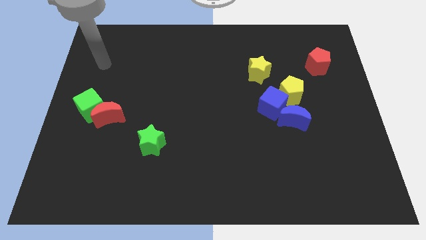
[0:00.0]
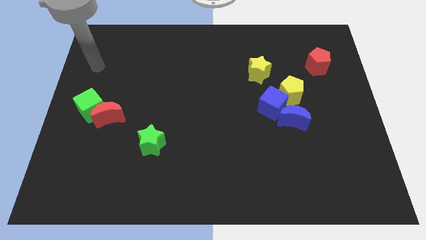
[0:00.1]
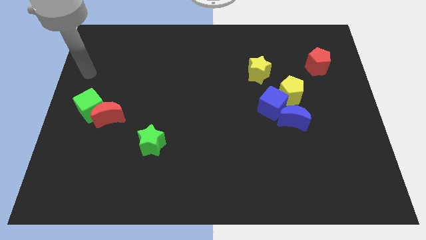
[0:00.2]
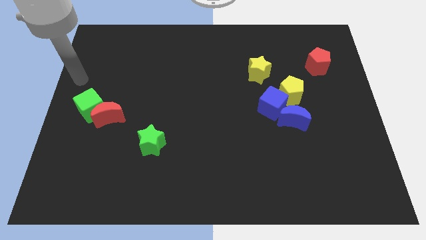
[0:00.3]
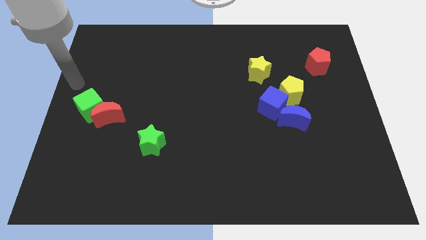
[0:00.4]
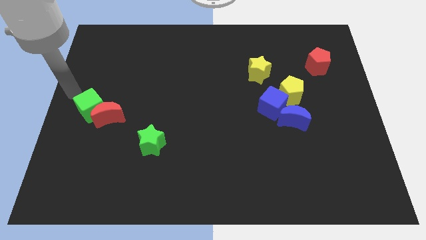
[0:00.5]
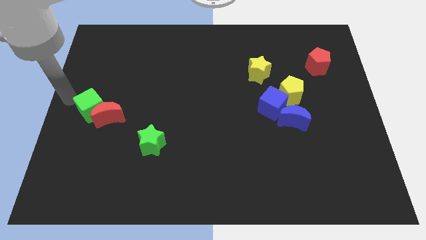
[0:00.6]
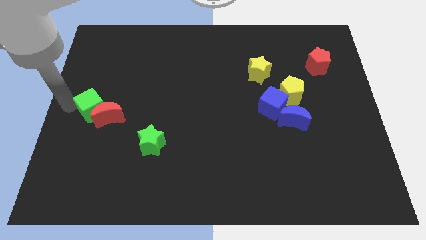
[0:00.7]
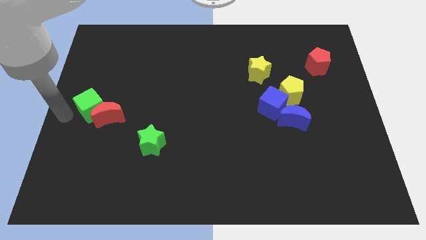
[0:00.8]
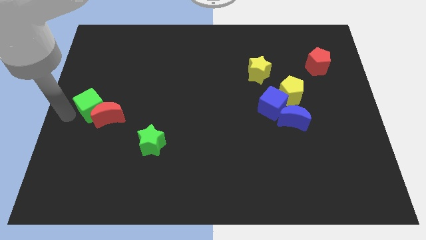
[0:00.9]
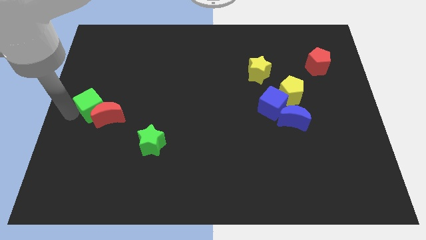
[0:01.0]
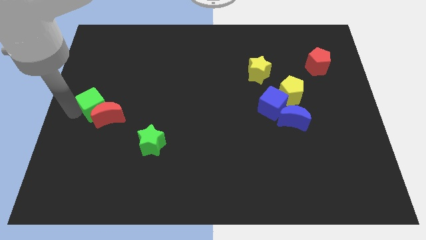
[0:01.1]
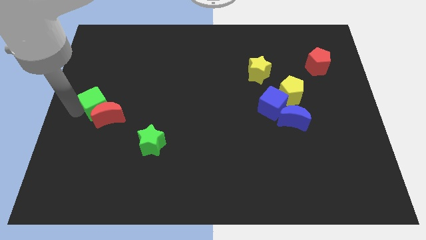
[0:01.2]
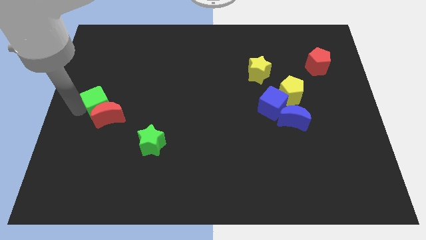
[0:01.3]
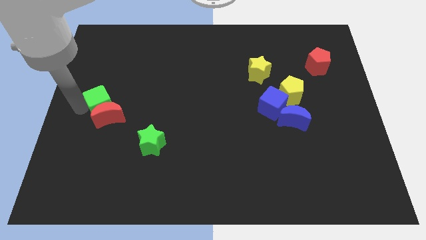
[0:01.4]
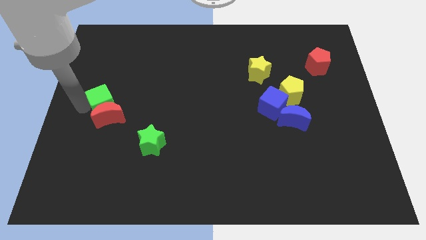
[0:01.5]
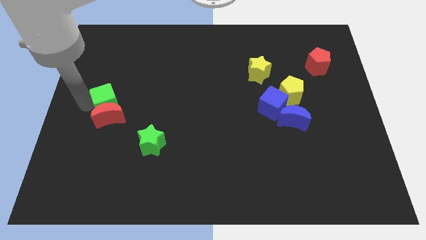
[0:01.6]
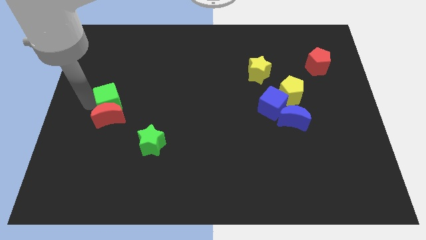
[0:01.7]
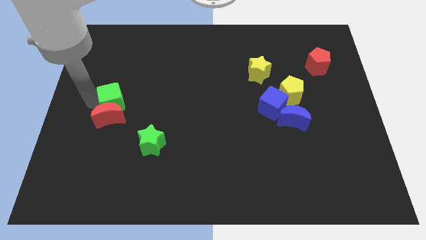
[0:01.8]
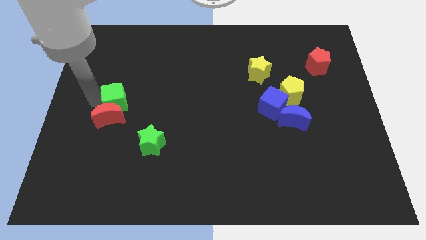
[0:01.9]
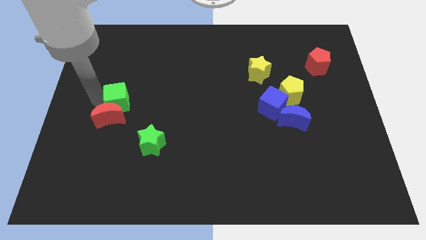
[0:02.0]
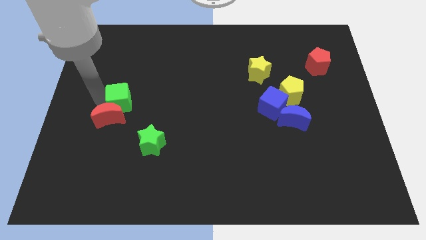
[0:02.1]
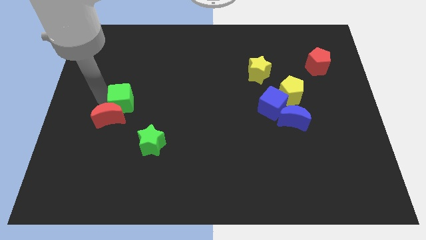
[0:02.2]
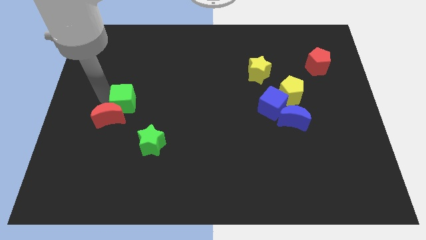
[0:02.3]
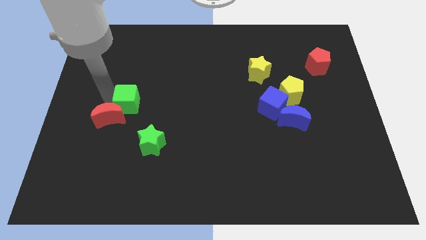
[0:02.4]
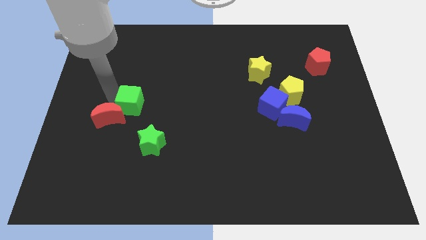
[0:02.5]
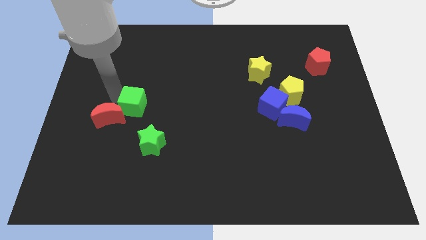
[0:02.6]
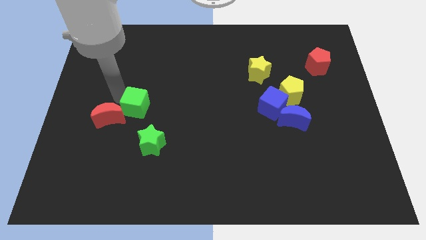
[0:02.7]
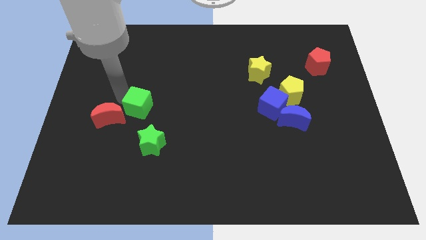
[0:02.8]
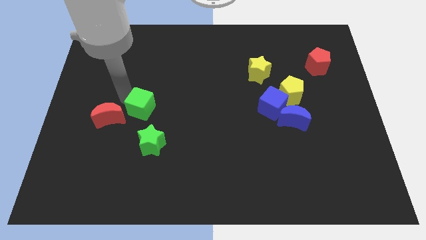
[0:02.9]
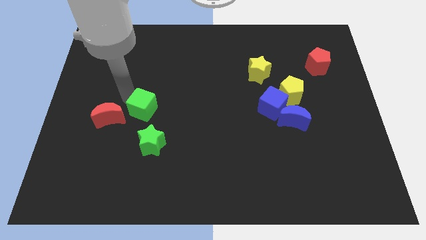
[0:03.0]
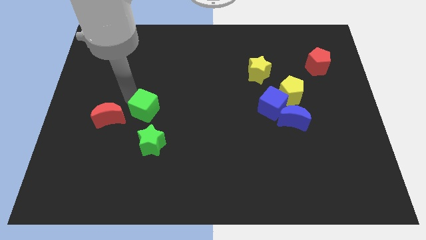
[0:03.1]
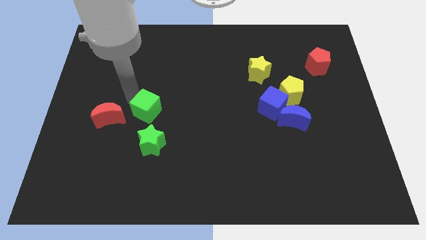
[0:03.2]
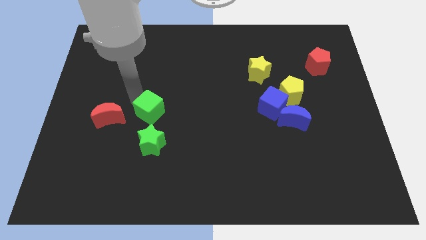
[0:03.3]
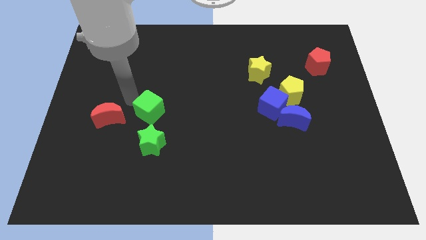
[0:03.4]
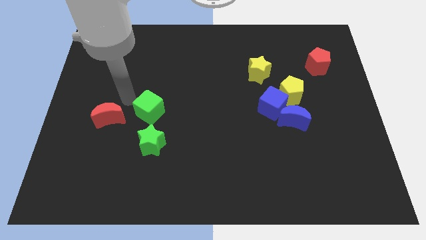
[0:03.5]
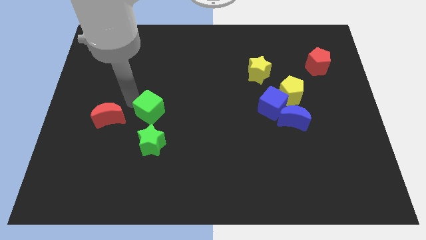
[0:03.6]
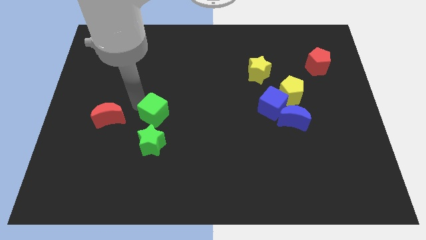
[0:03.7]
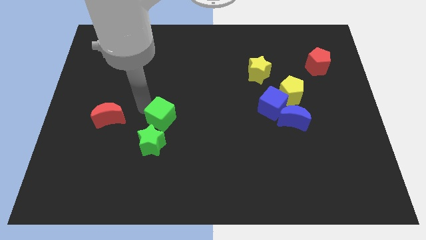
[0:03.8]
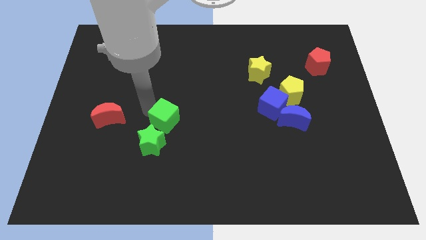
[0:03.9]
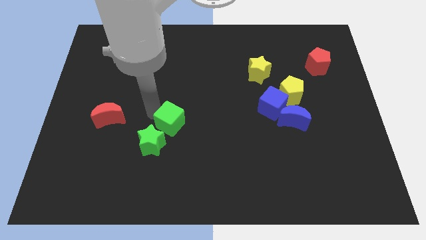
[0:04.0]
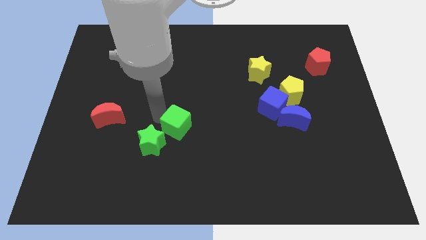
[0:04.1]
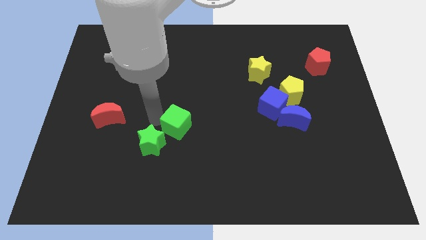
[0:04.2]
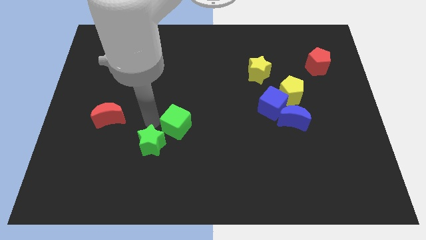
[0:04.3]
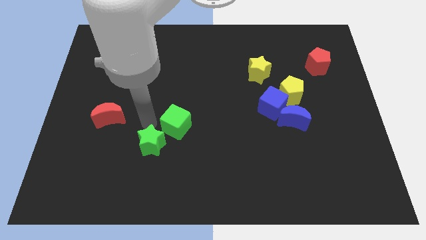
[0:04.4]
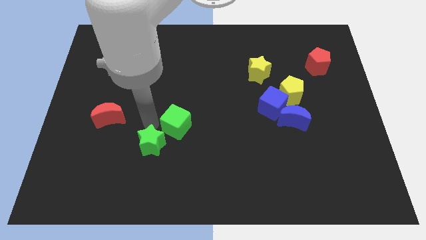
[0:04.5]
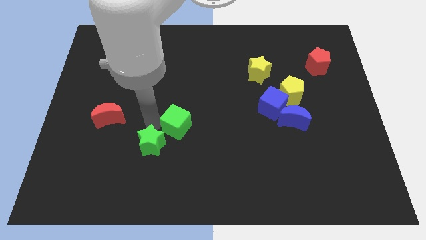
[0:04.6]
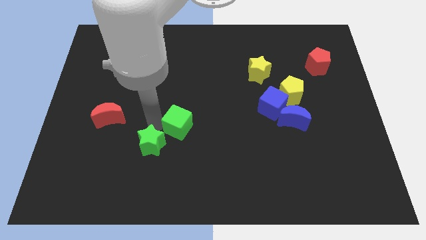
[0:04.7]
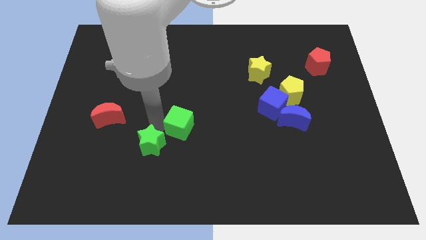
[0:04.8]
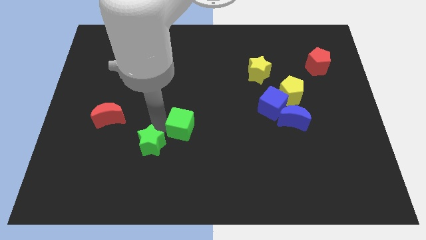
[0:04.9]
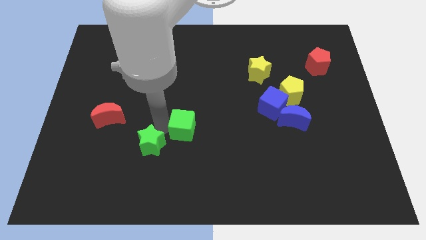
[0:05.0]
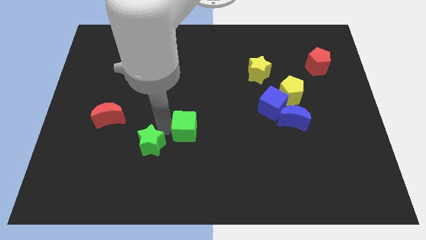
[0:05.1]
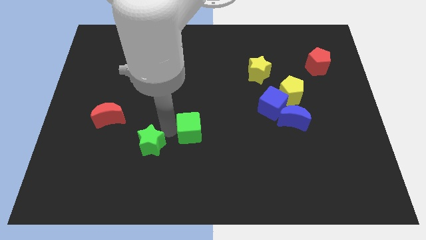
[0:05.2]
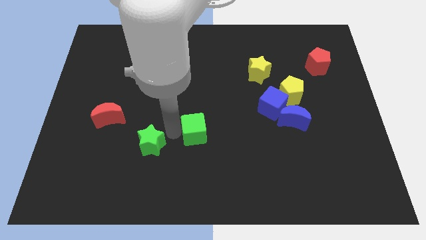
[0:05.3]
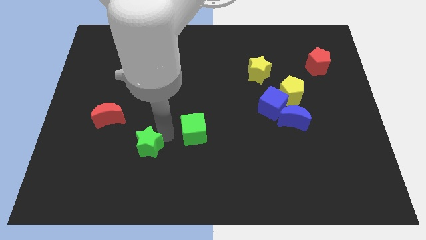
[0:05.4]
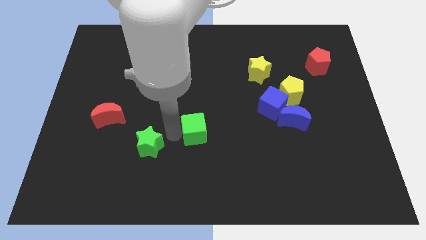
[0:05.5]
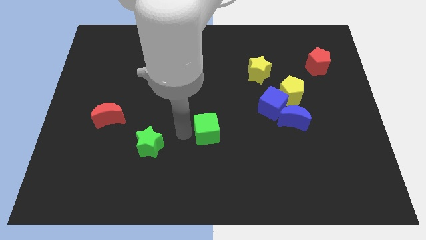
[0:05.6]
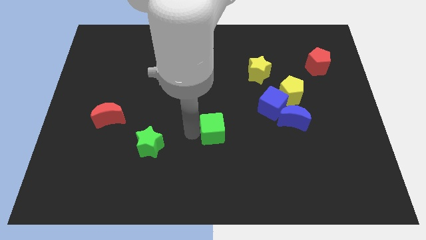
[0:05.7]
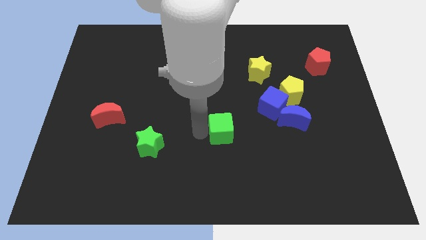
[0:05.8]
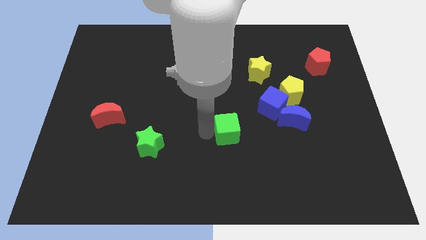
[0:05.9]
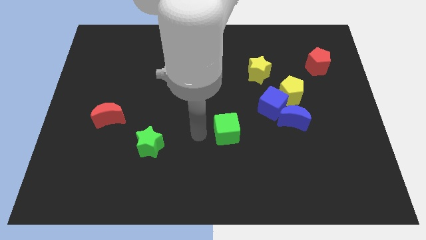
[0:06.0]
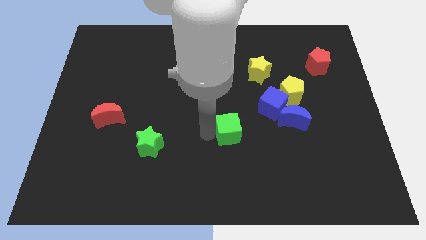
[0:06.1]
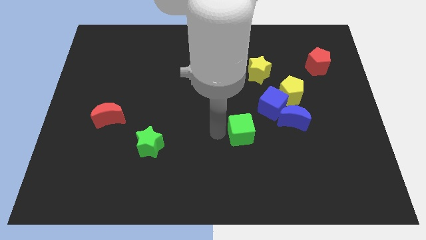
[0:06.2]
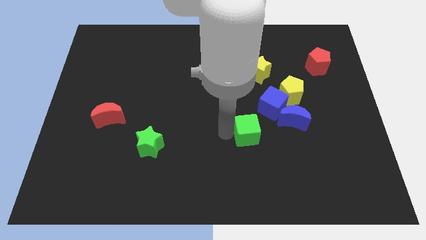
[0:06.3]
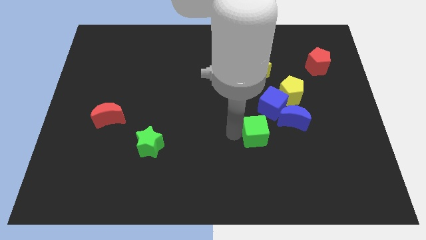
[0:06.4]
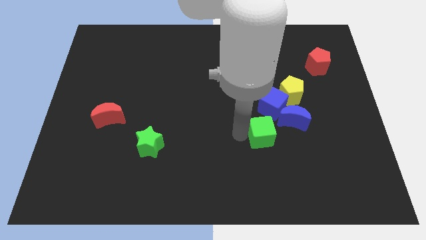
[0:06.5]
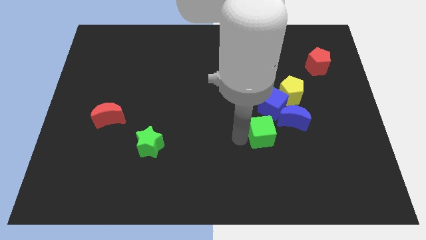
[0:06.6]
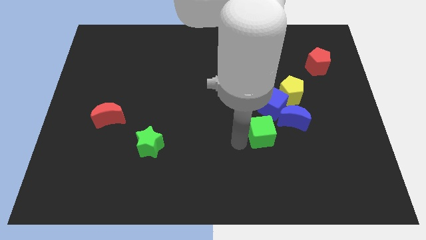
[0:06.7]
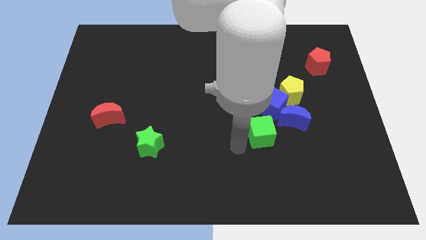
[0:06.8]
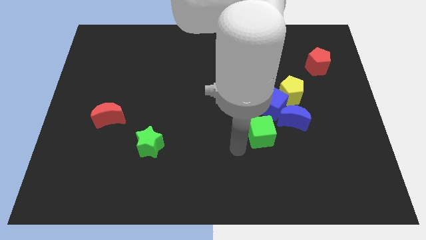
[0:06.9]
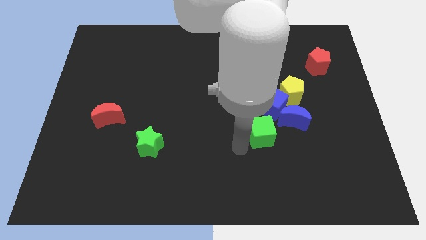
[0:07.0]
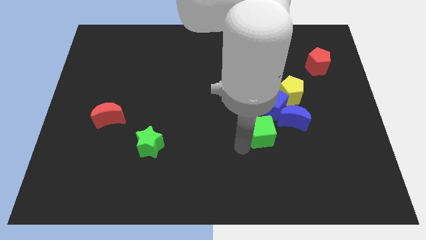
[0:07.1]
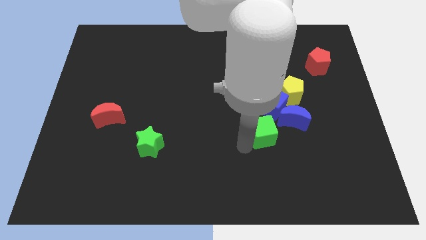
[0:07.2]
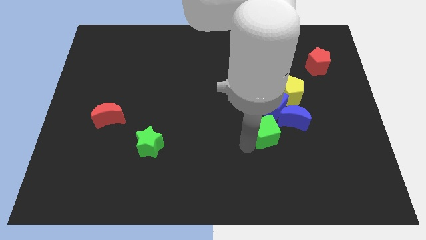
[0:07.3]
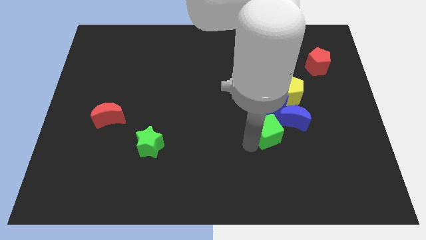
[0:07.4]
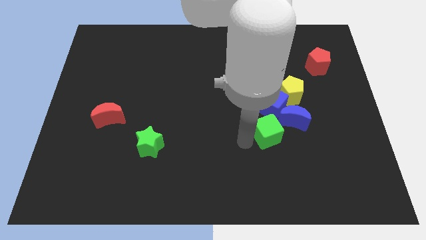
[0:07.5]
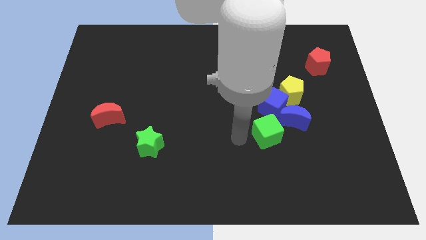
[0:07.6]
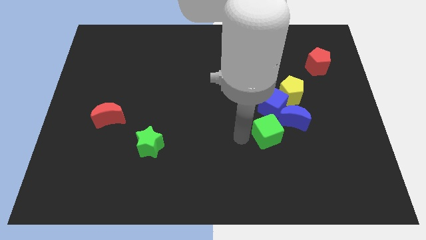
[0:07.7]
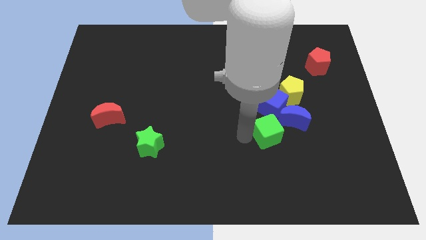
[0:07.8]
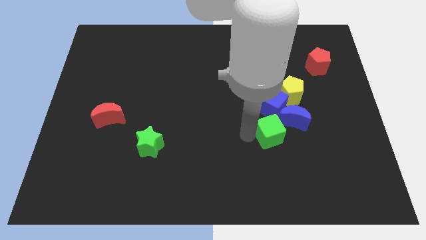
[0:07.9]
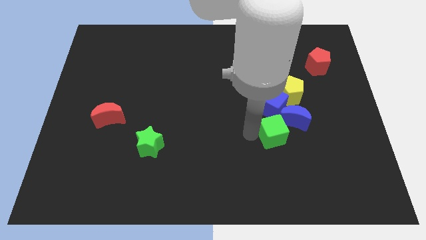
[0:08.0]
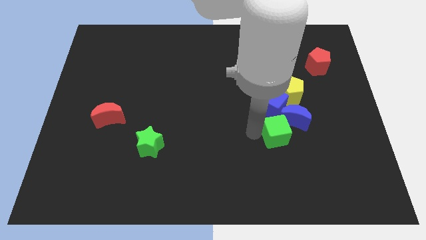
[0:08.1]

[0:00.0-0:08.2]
slide the green cube to the bottom side of the yellow pentagon
